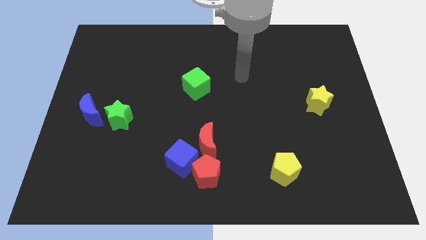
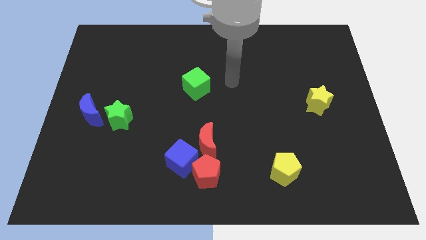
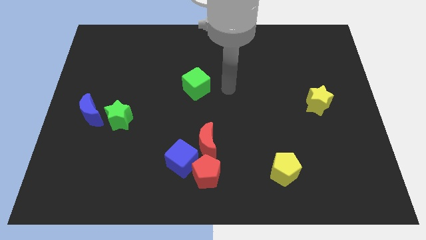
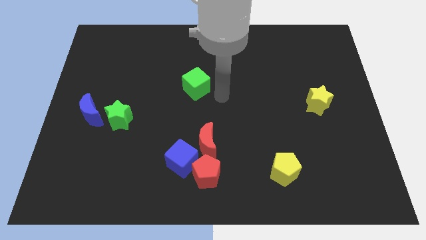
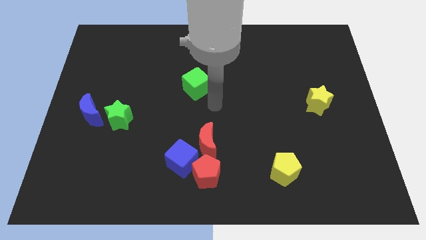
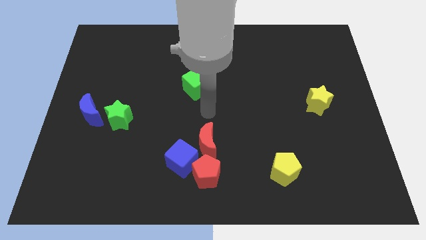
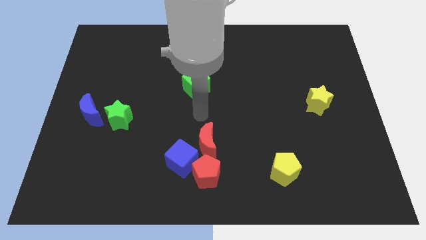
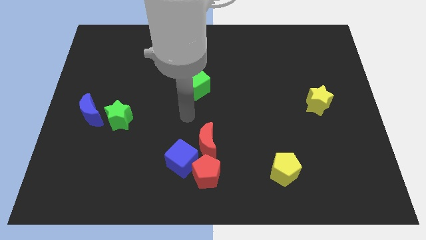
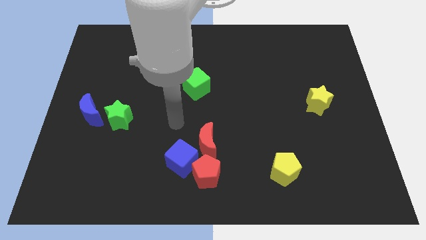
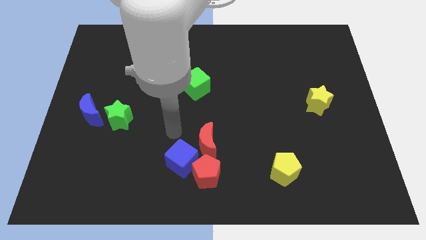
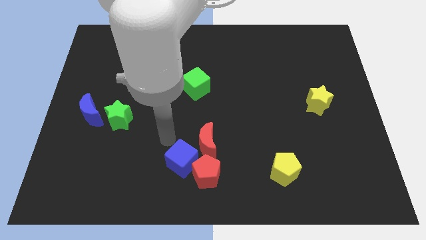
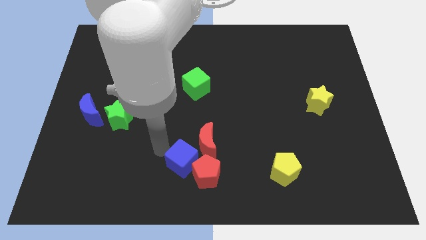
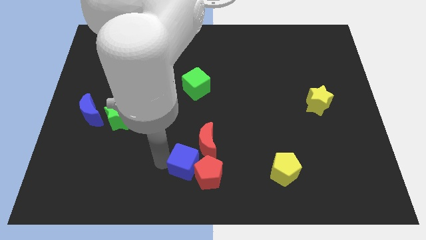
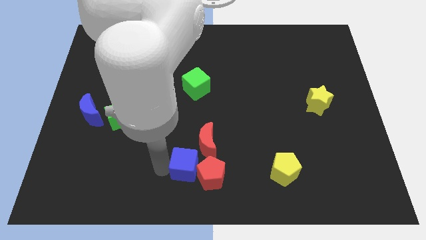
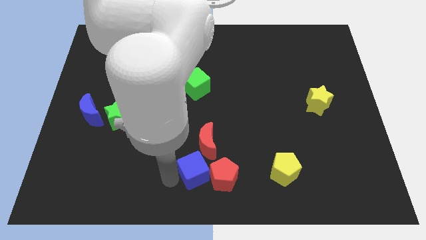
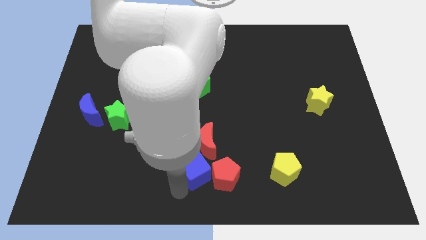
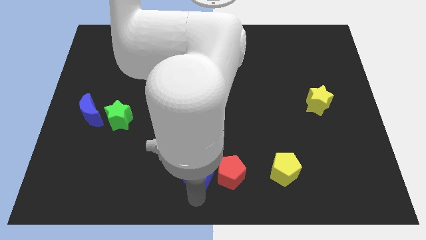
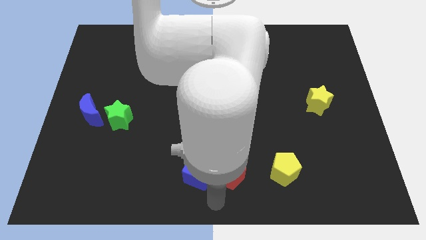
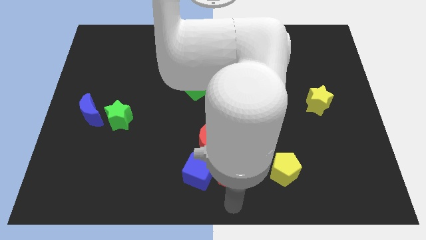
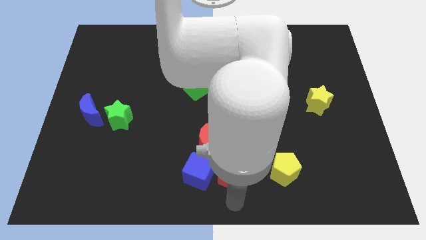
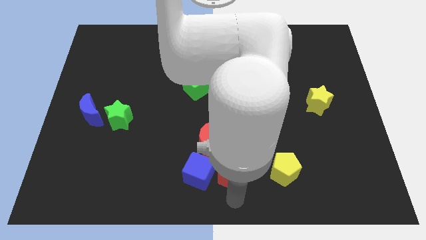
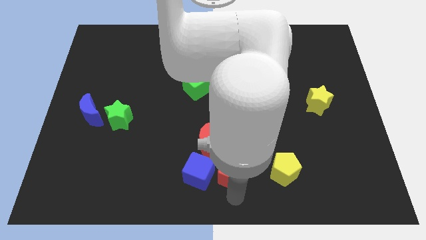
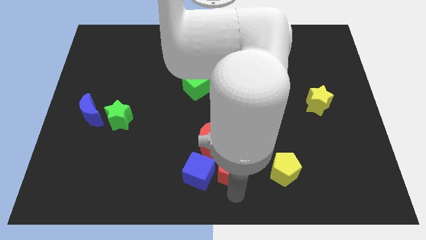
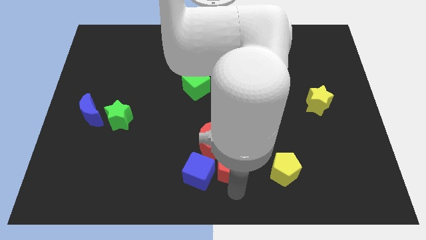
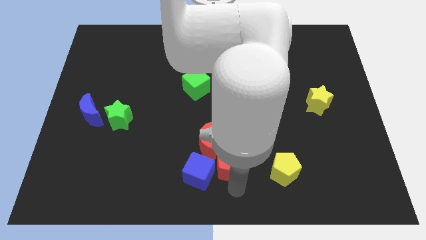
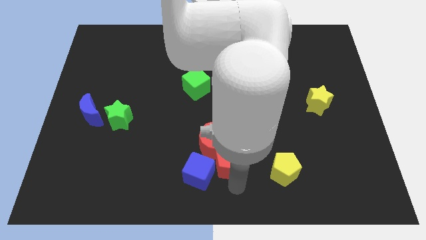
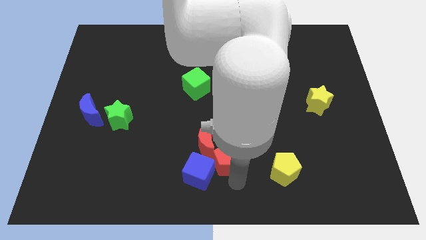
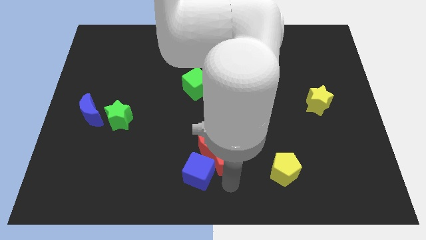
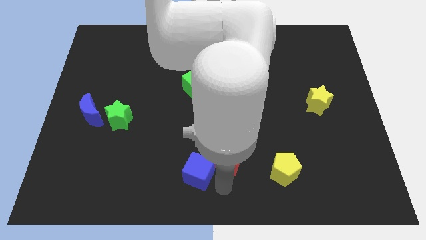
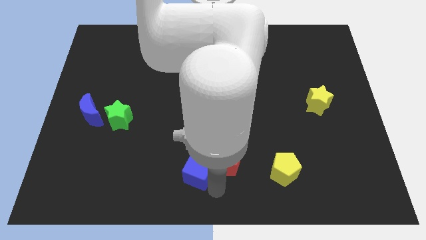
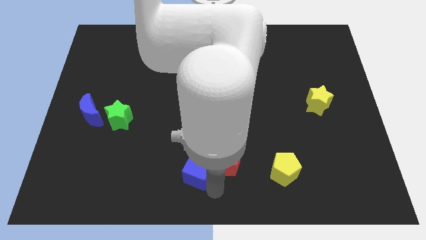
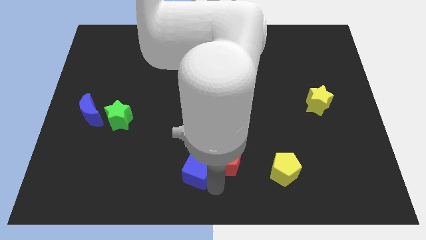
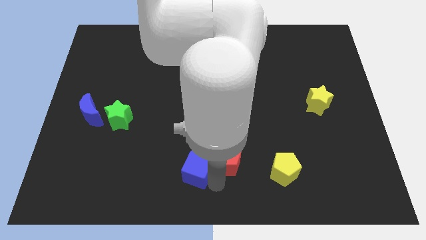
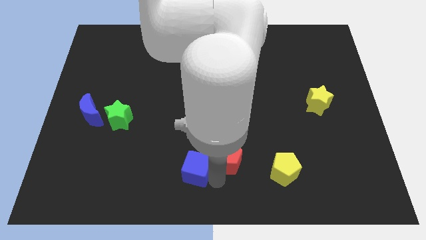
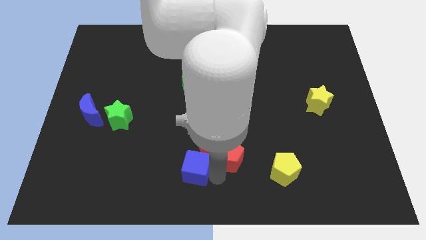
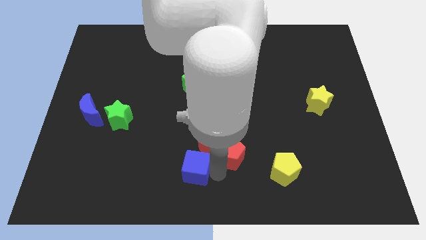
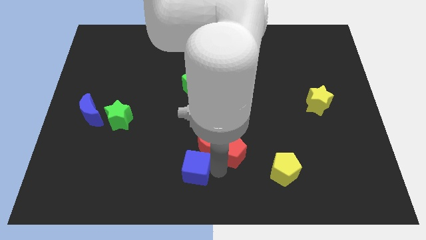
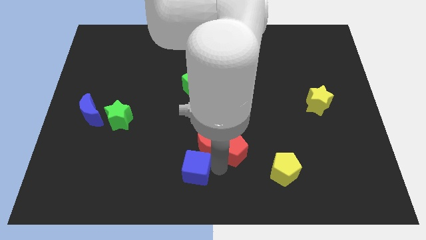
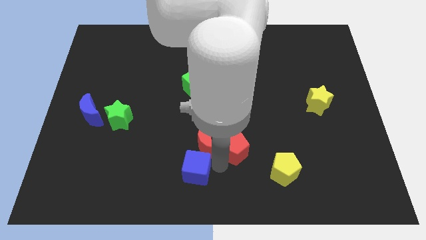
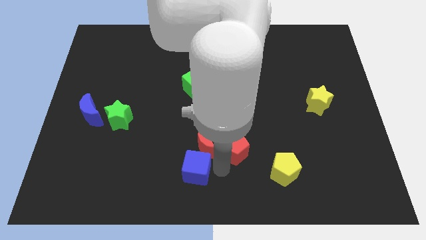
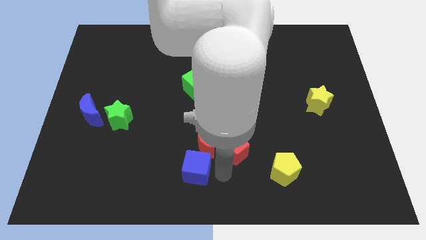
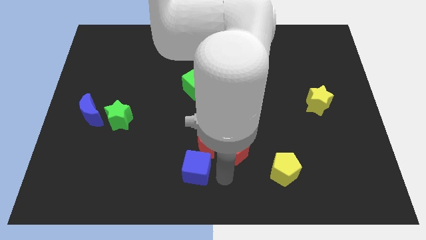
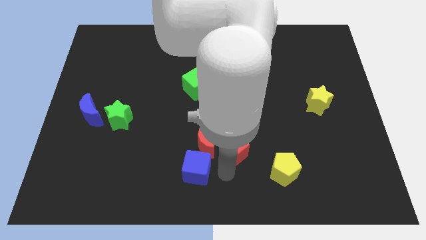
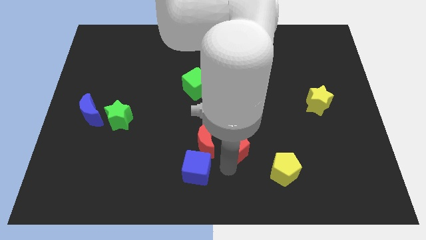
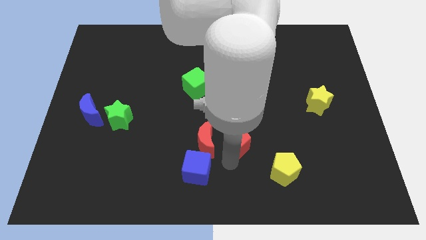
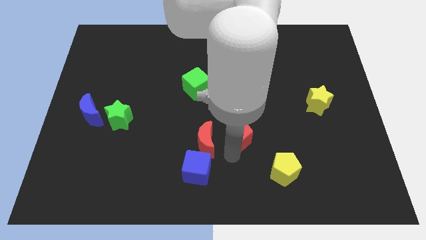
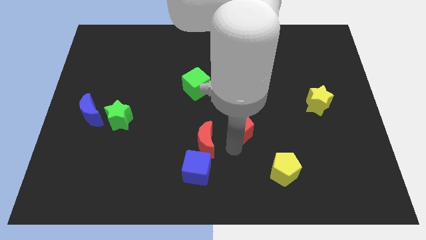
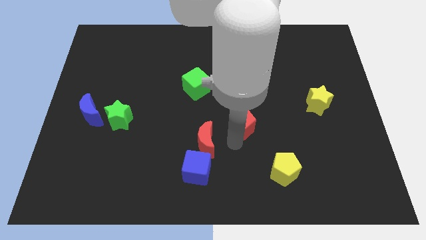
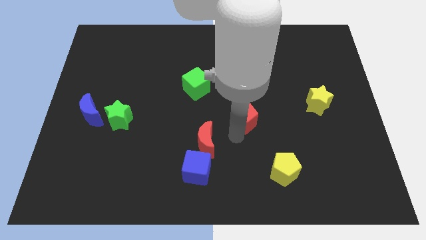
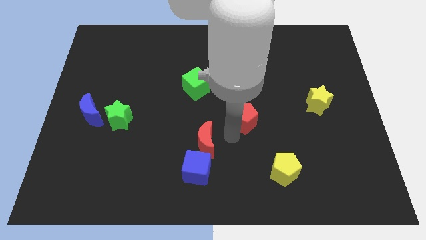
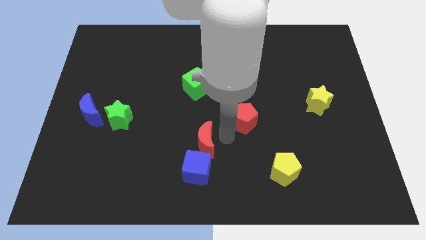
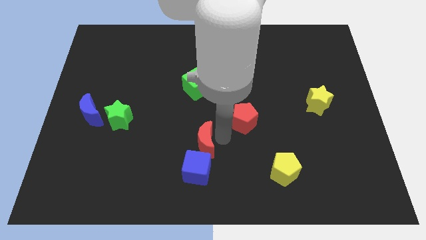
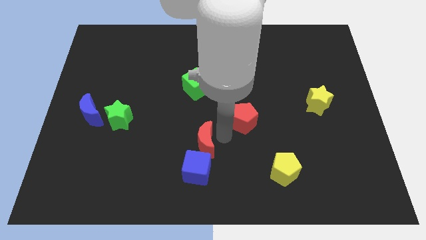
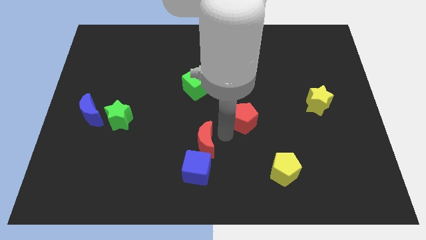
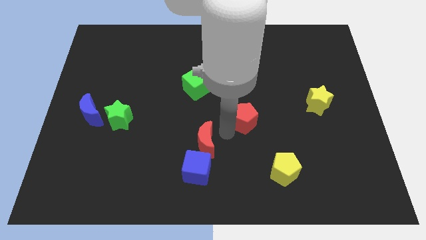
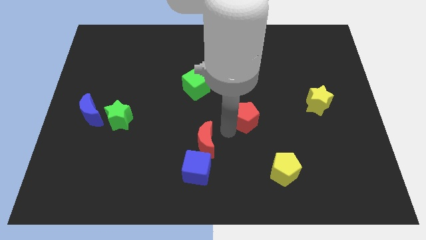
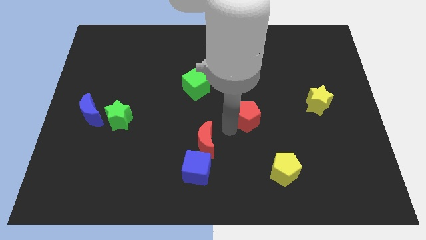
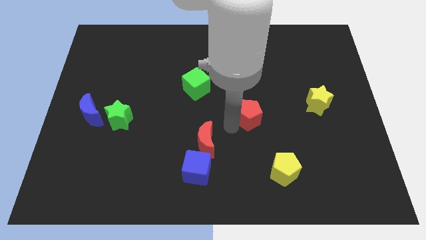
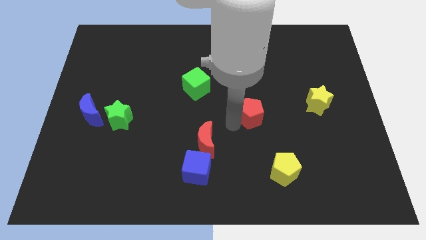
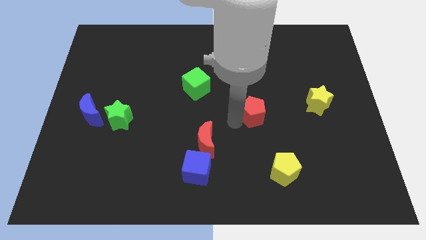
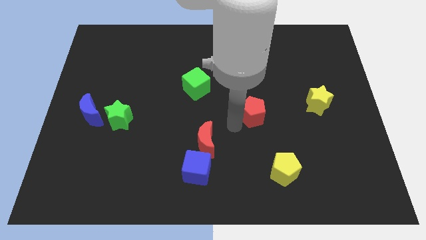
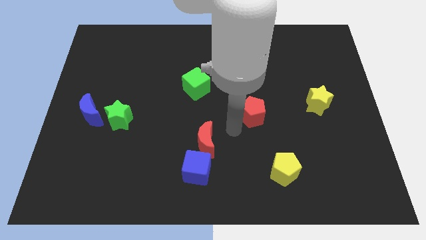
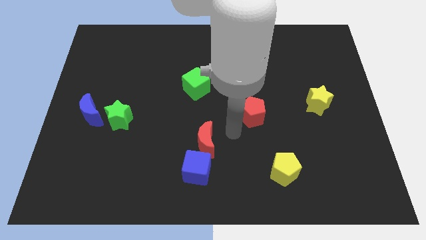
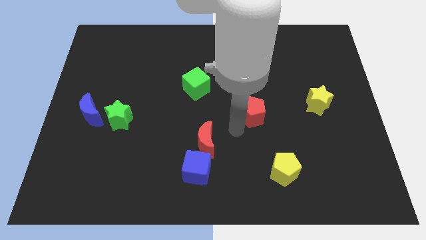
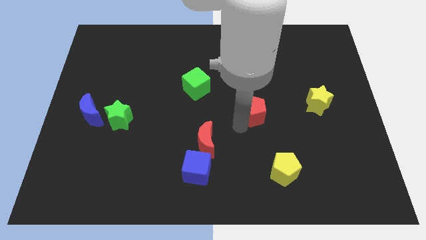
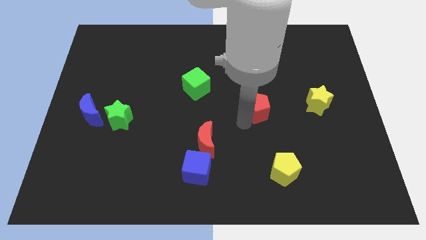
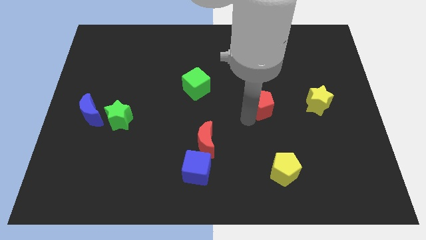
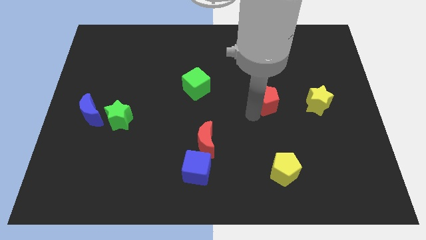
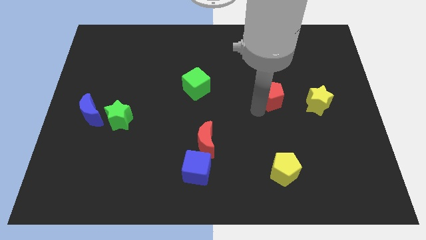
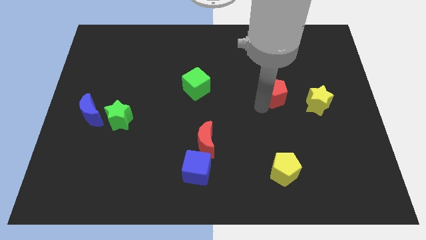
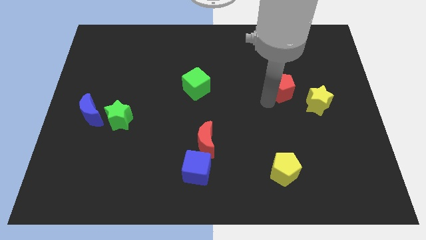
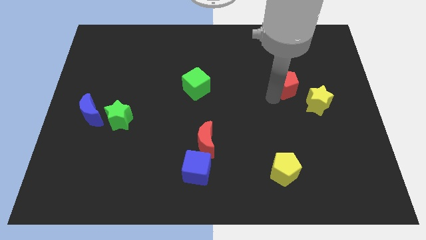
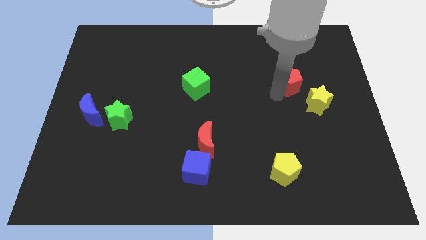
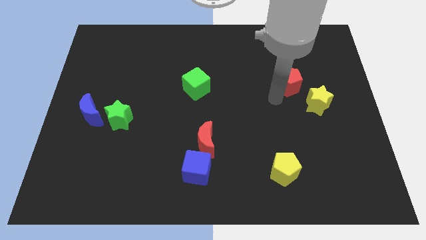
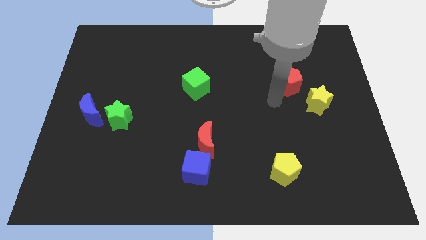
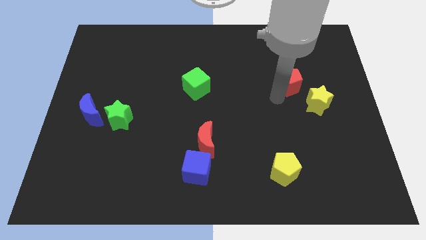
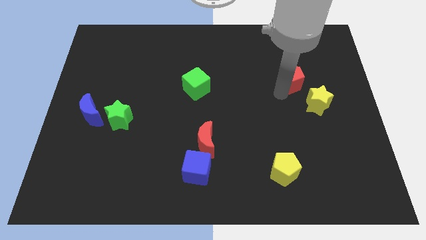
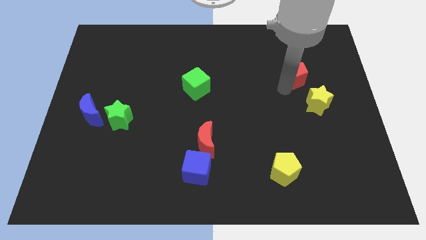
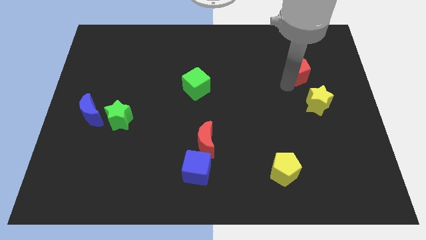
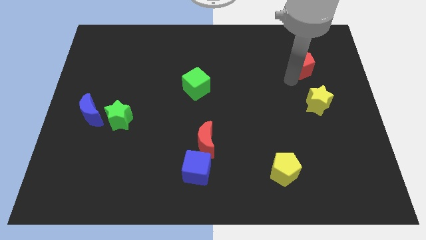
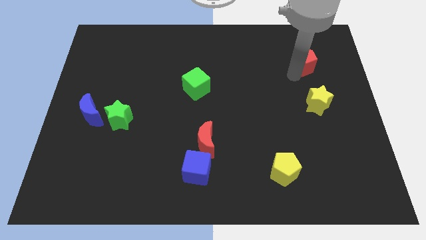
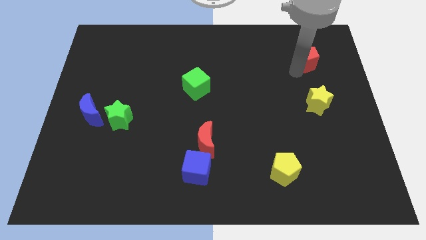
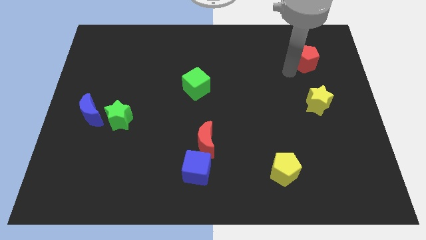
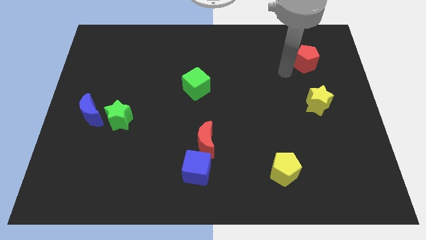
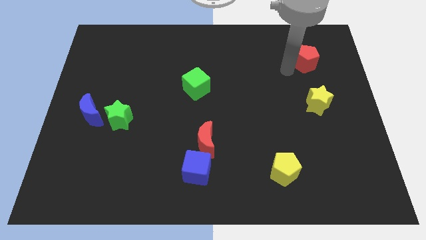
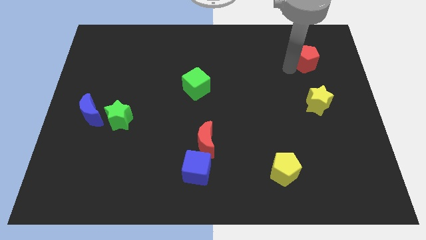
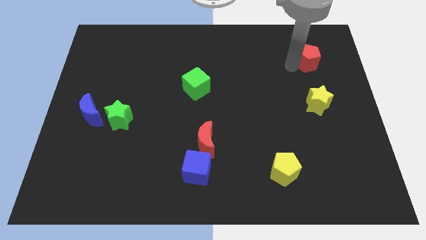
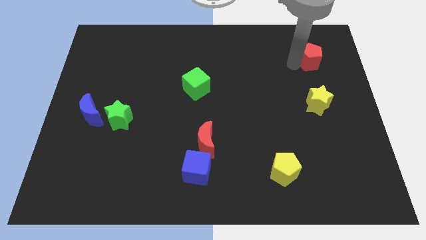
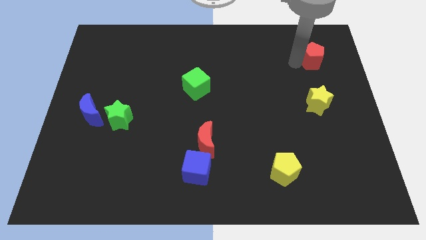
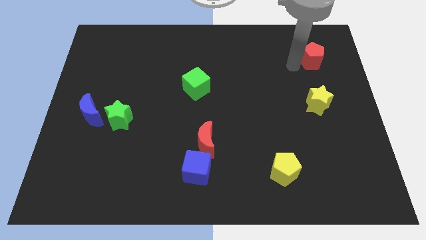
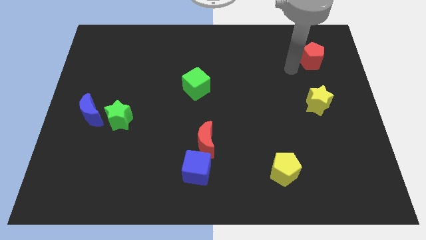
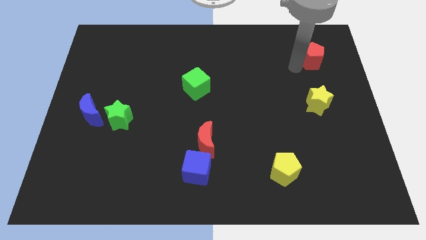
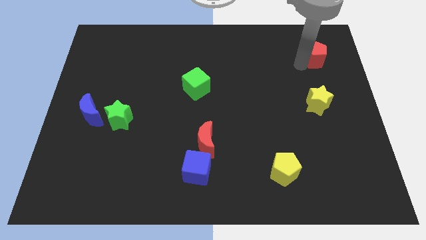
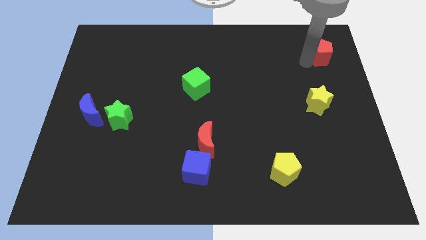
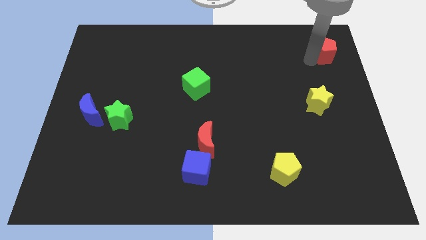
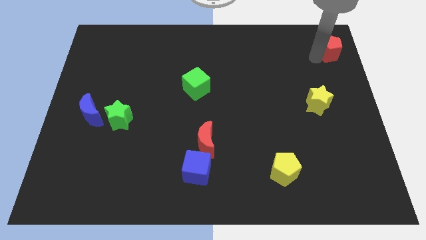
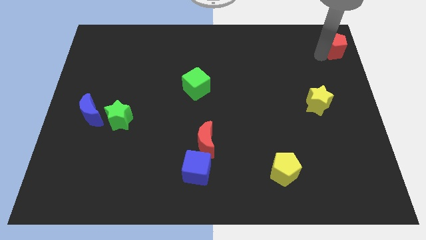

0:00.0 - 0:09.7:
slide the red pentagon to the top right
